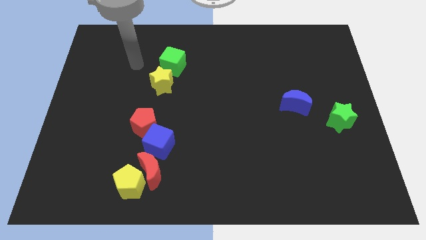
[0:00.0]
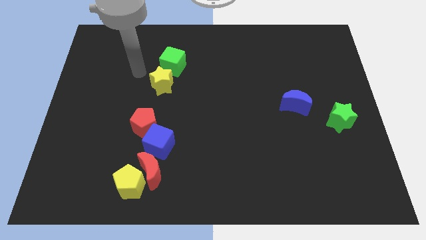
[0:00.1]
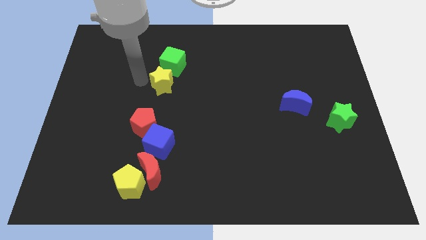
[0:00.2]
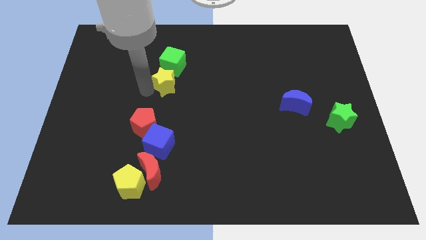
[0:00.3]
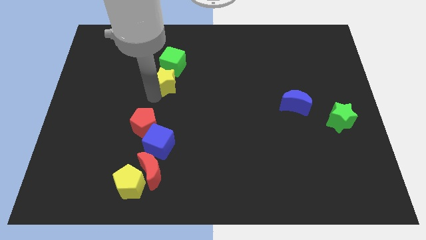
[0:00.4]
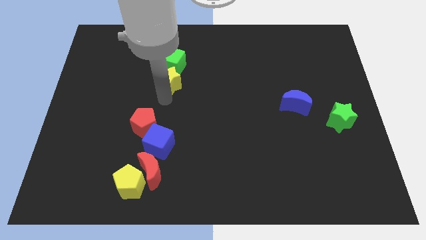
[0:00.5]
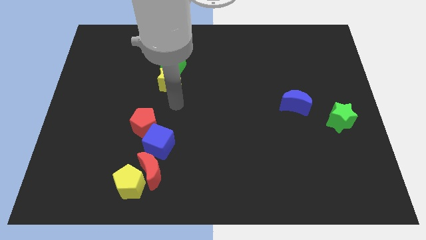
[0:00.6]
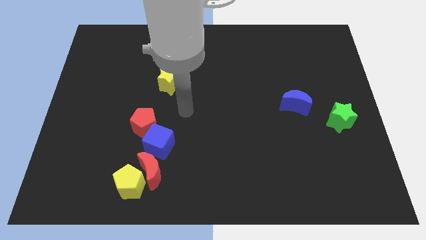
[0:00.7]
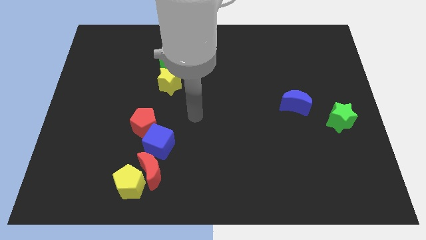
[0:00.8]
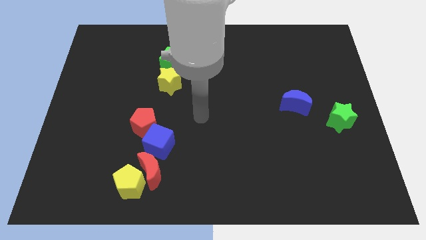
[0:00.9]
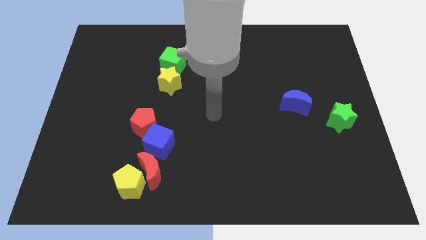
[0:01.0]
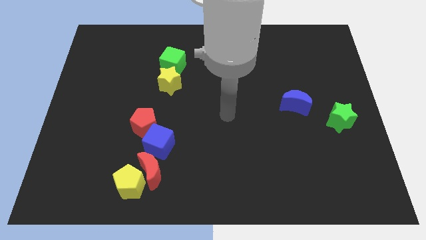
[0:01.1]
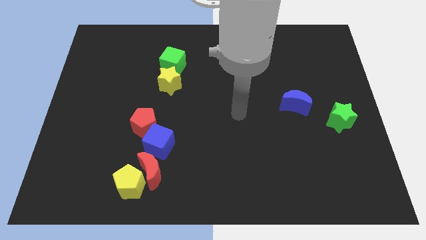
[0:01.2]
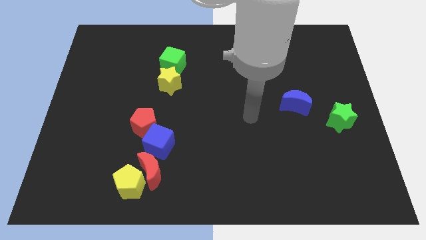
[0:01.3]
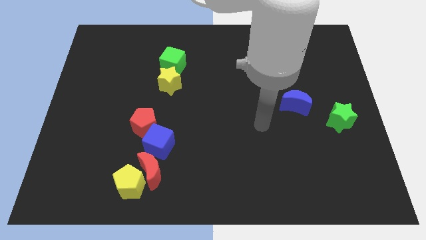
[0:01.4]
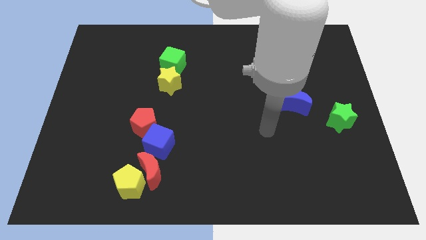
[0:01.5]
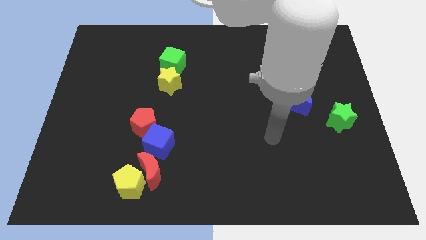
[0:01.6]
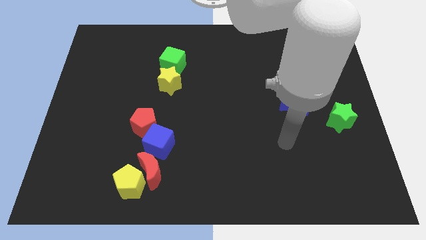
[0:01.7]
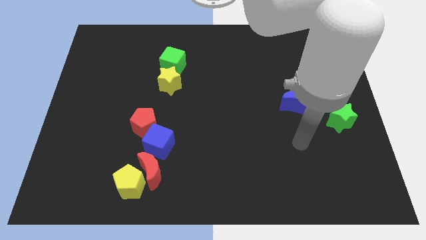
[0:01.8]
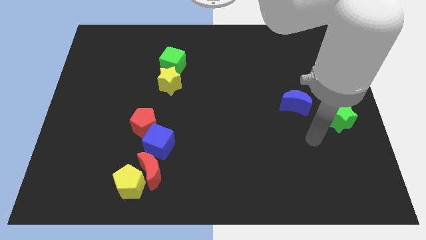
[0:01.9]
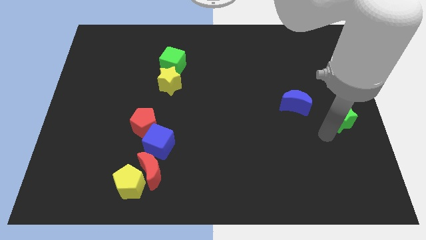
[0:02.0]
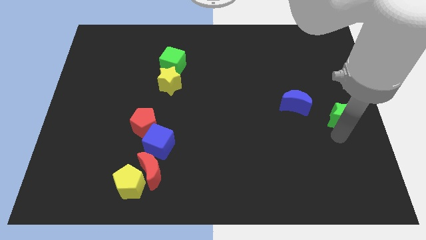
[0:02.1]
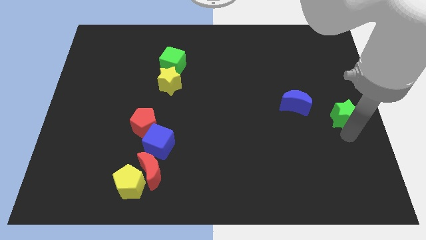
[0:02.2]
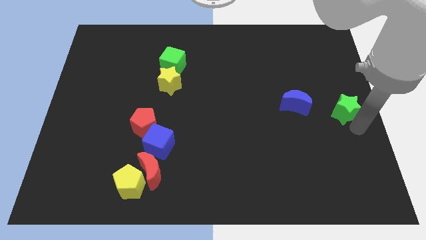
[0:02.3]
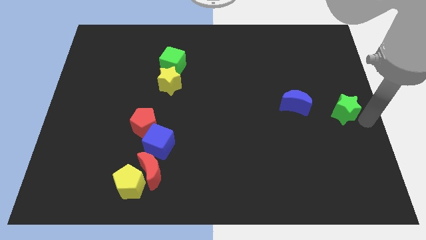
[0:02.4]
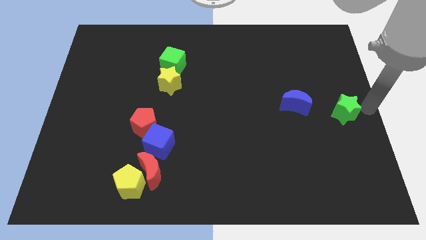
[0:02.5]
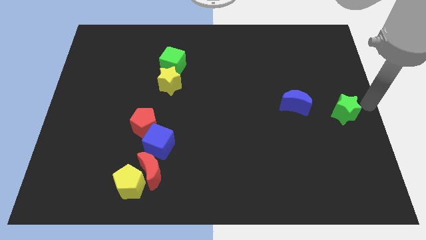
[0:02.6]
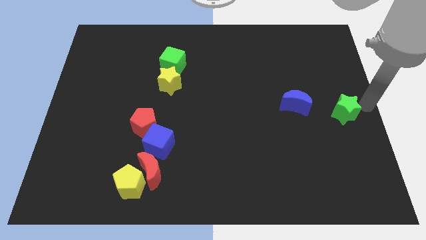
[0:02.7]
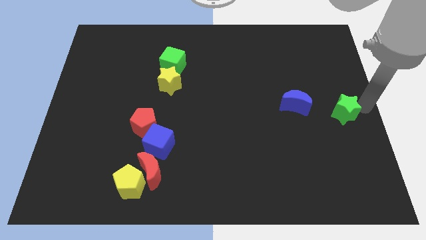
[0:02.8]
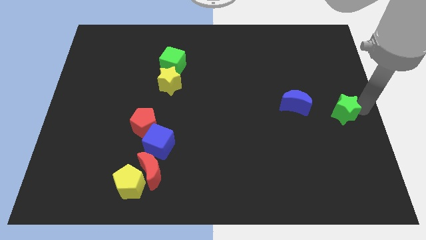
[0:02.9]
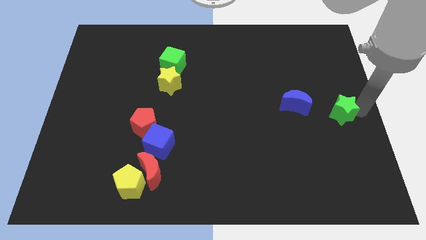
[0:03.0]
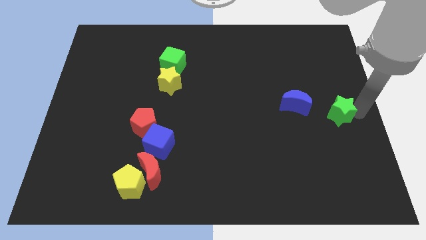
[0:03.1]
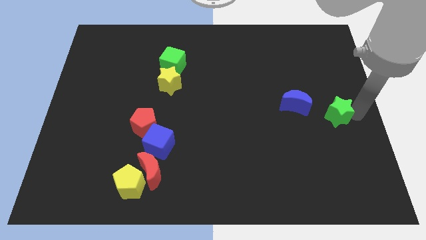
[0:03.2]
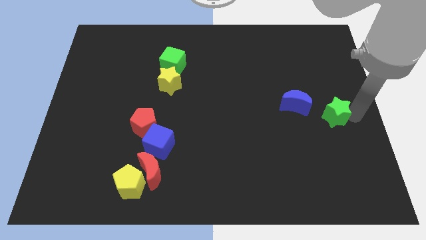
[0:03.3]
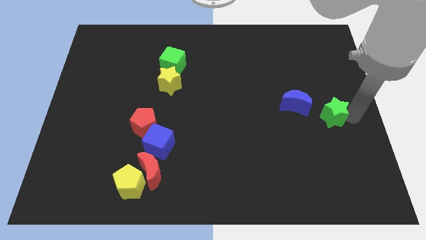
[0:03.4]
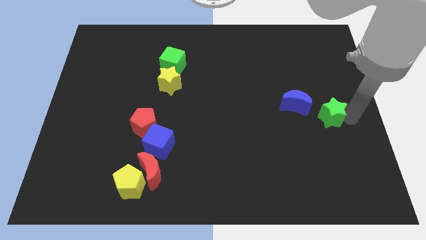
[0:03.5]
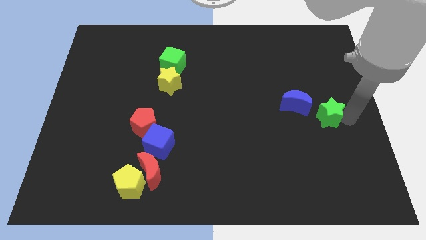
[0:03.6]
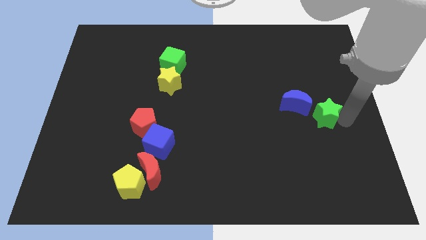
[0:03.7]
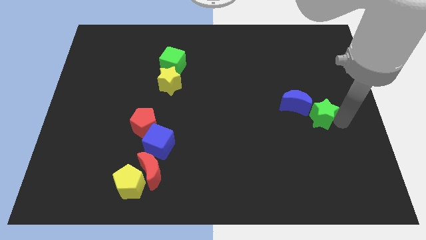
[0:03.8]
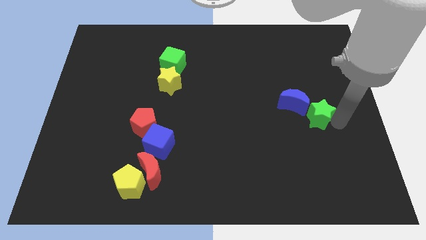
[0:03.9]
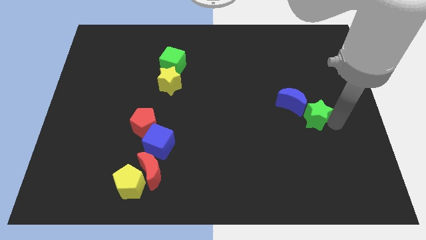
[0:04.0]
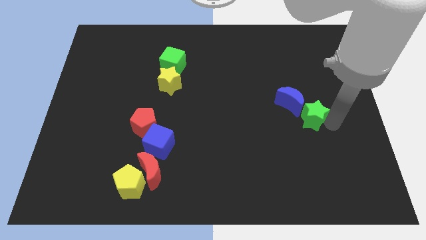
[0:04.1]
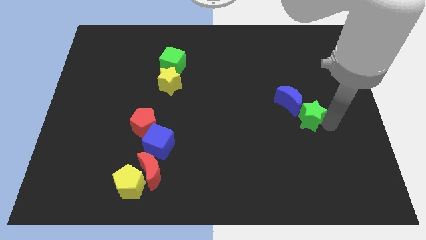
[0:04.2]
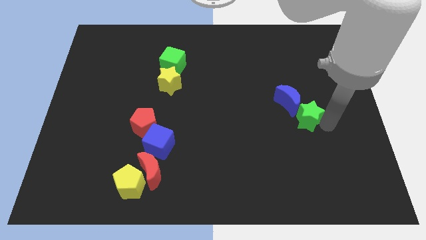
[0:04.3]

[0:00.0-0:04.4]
slightly move the green star left

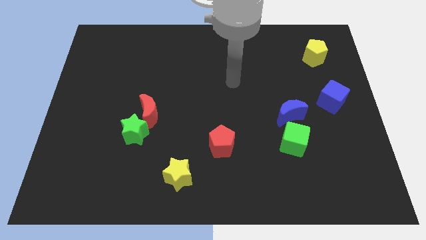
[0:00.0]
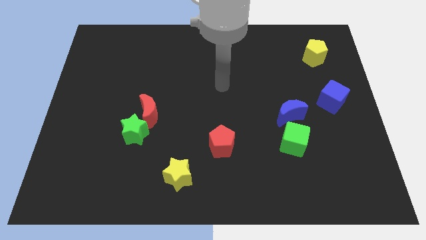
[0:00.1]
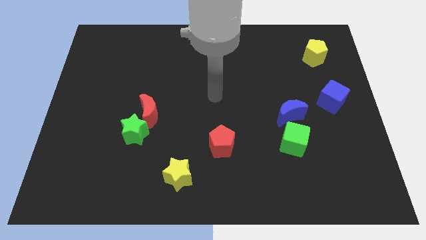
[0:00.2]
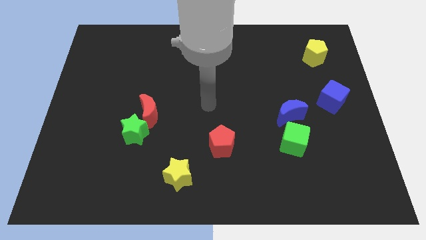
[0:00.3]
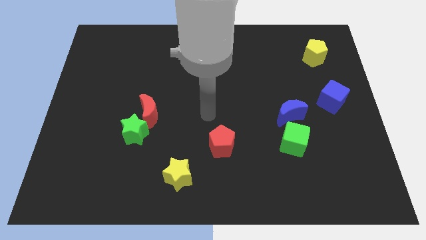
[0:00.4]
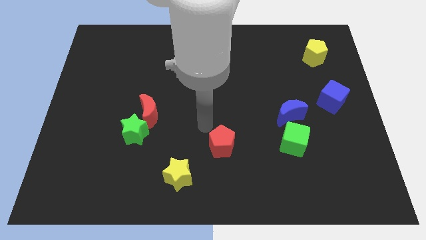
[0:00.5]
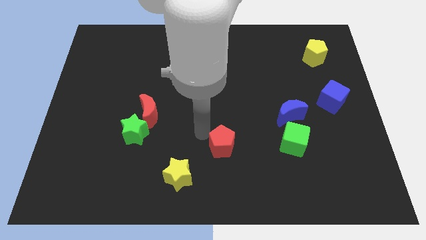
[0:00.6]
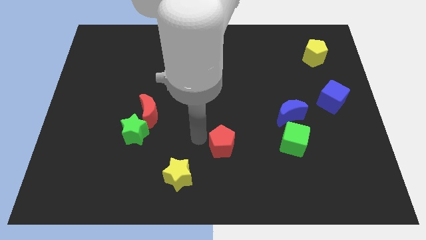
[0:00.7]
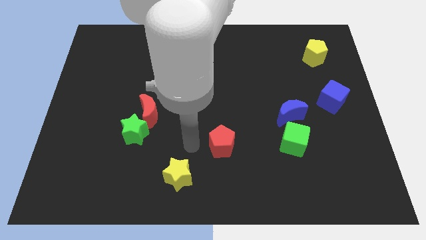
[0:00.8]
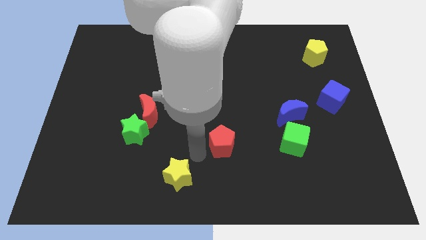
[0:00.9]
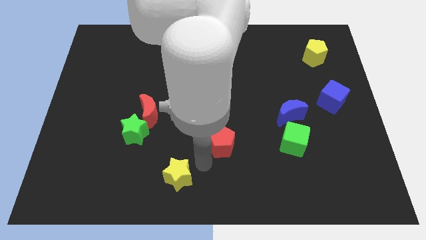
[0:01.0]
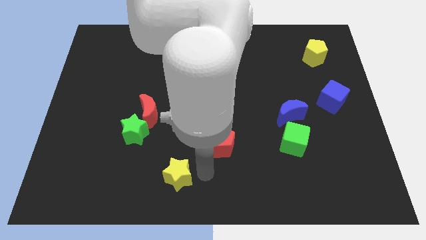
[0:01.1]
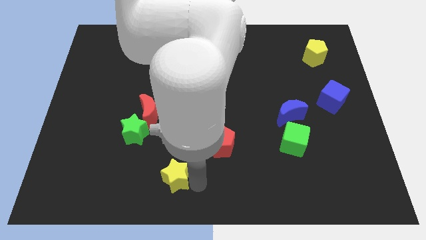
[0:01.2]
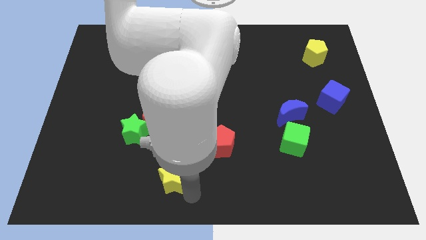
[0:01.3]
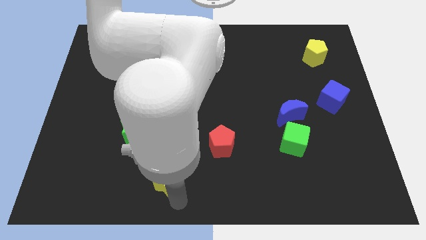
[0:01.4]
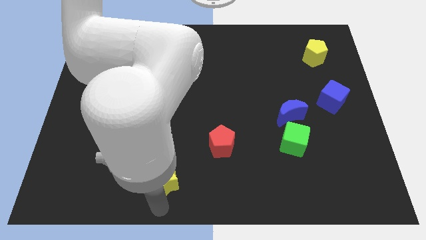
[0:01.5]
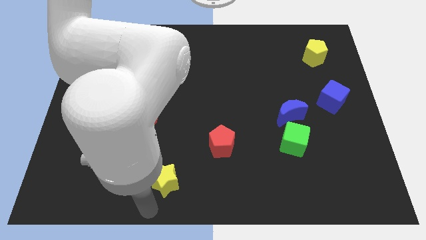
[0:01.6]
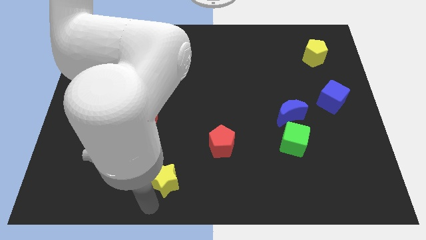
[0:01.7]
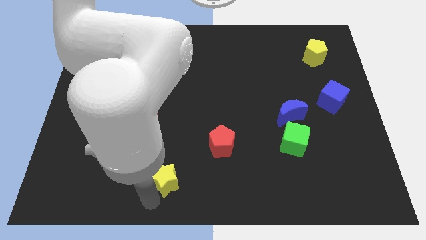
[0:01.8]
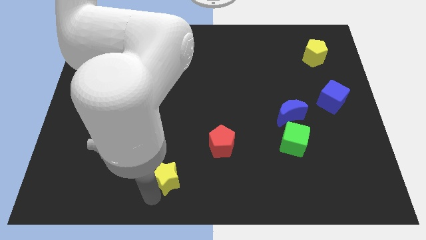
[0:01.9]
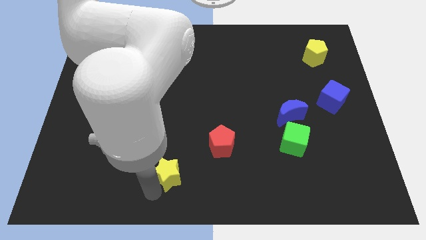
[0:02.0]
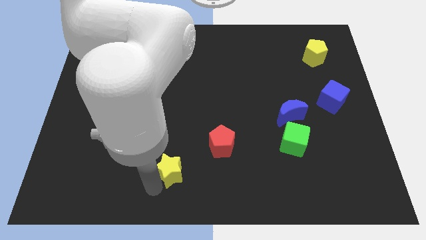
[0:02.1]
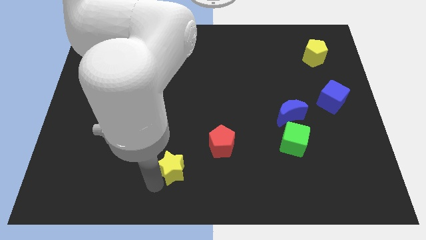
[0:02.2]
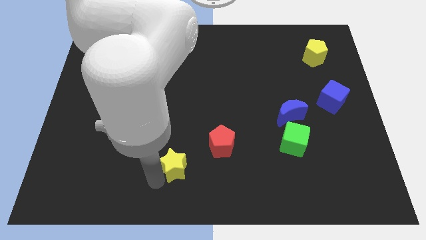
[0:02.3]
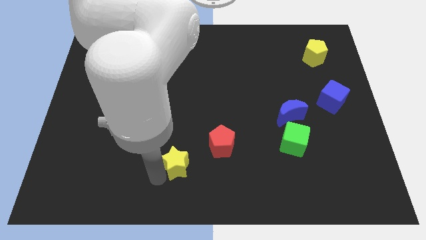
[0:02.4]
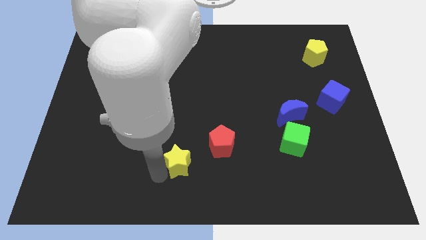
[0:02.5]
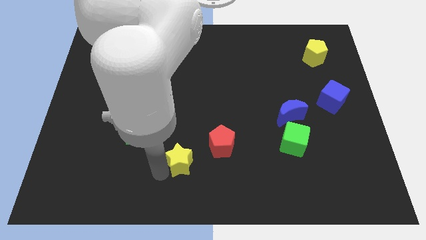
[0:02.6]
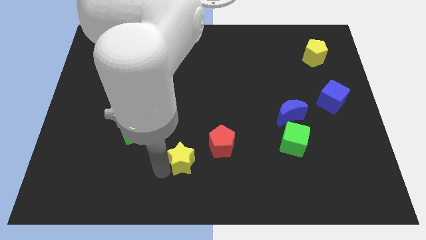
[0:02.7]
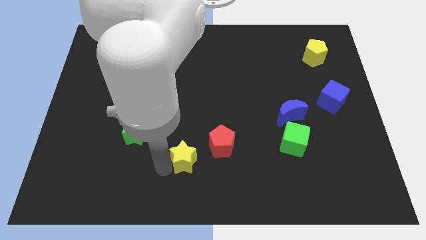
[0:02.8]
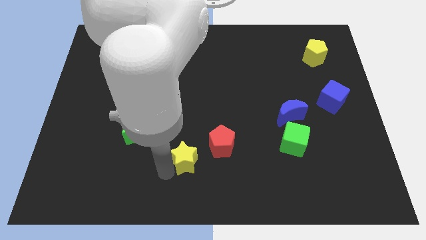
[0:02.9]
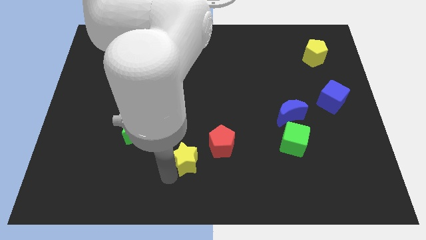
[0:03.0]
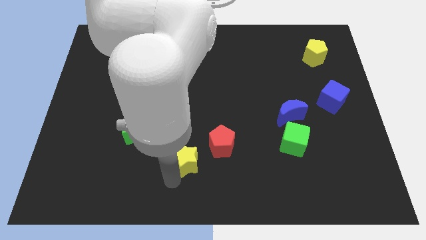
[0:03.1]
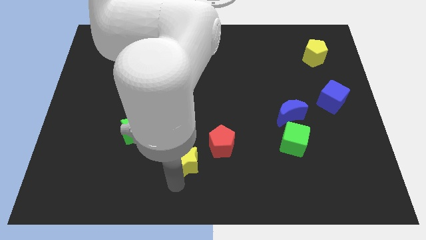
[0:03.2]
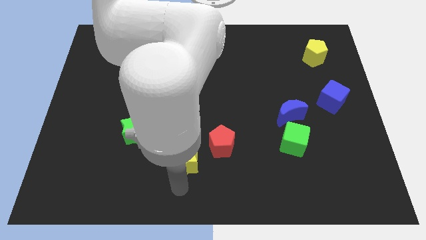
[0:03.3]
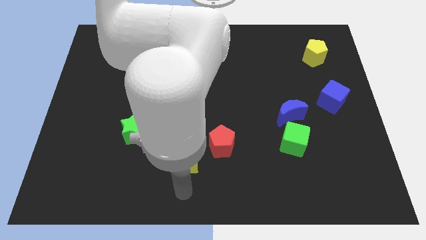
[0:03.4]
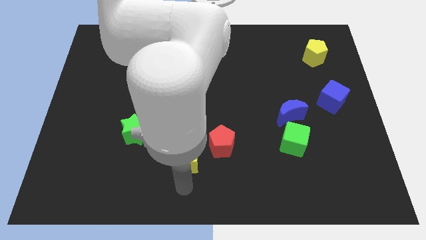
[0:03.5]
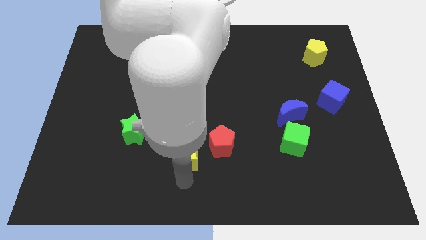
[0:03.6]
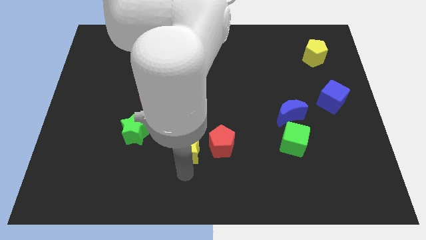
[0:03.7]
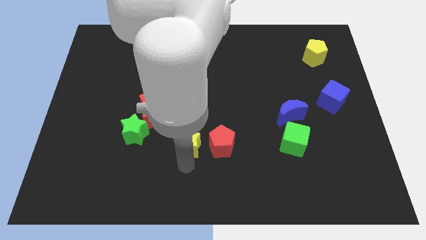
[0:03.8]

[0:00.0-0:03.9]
push the yellow star up a little bit
